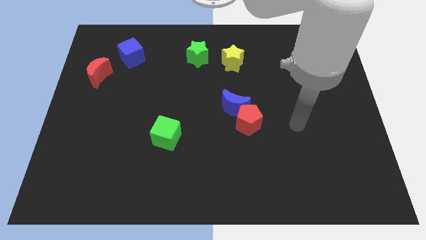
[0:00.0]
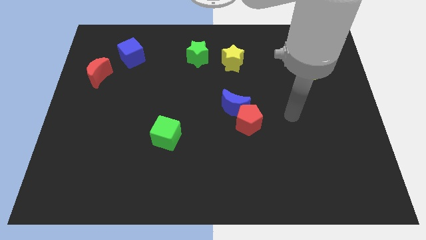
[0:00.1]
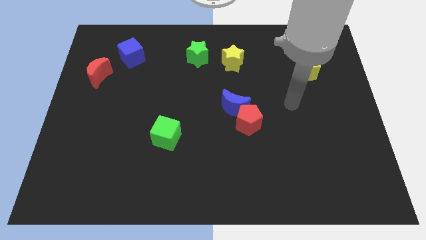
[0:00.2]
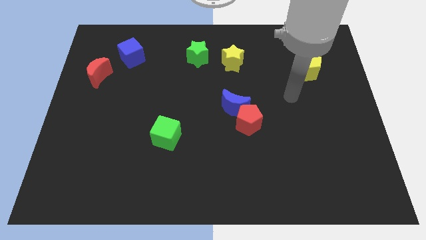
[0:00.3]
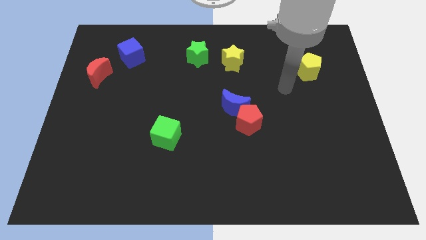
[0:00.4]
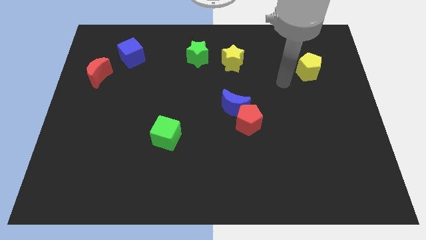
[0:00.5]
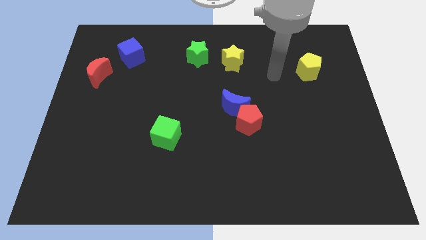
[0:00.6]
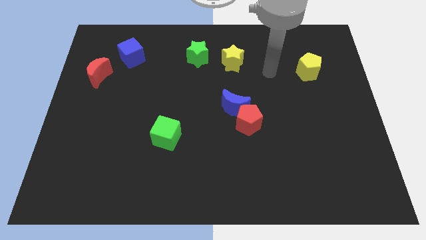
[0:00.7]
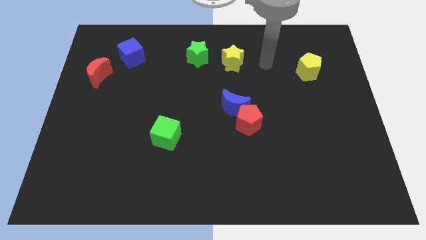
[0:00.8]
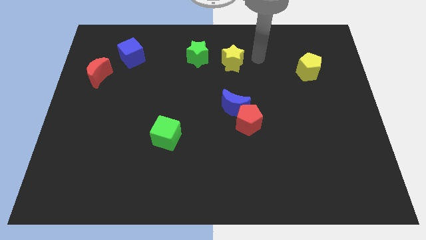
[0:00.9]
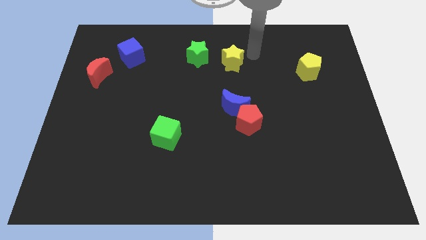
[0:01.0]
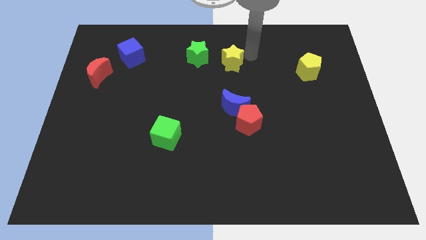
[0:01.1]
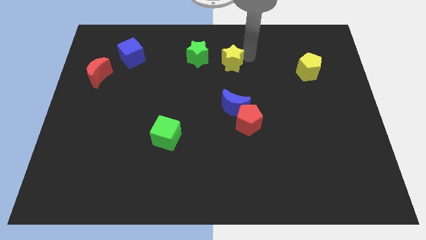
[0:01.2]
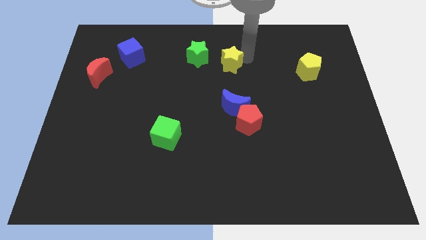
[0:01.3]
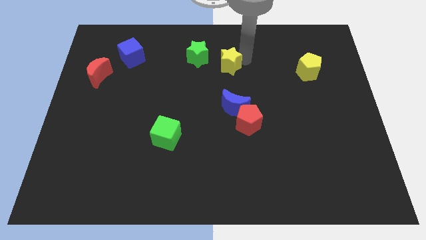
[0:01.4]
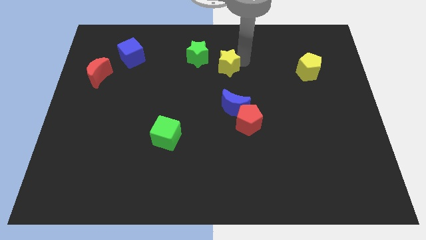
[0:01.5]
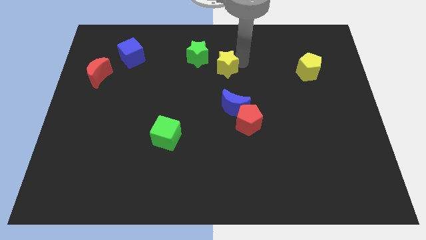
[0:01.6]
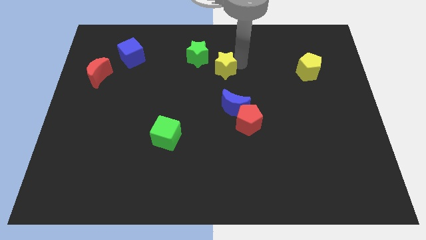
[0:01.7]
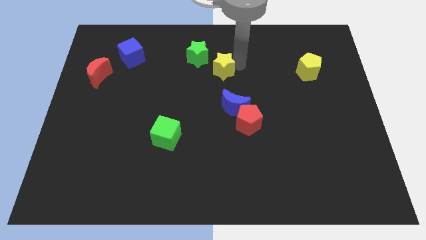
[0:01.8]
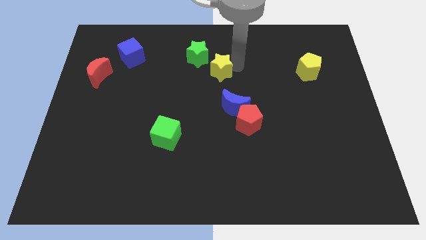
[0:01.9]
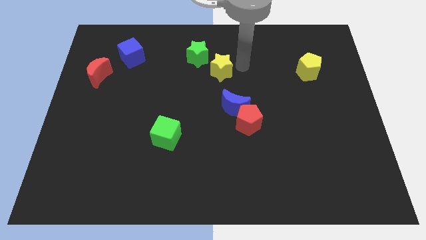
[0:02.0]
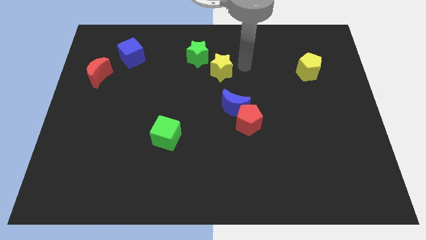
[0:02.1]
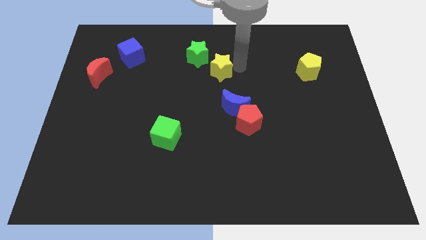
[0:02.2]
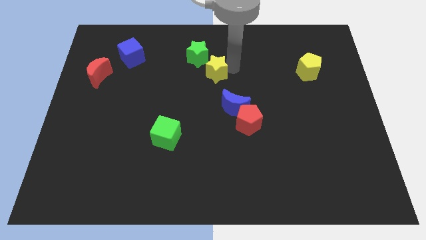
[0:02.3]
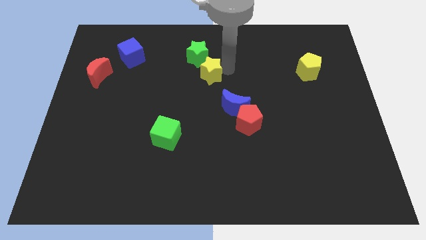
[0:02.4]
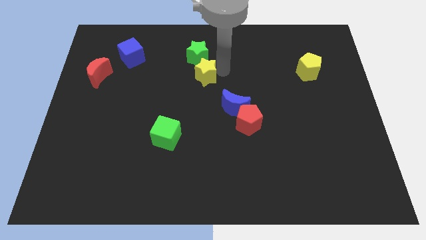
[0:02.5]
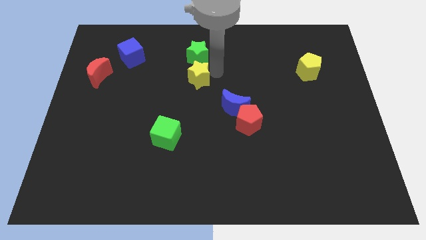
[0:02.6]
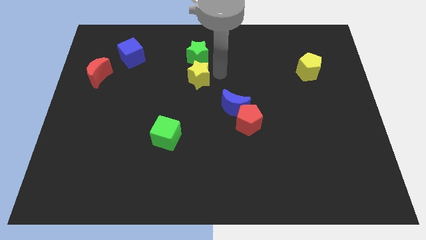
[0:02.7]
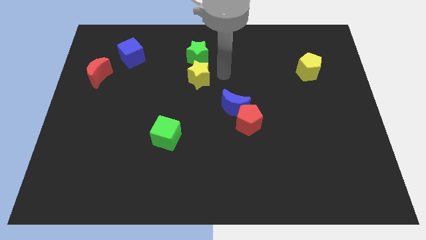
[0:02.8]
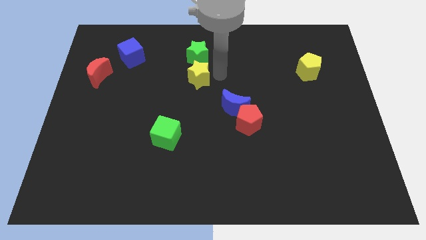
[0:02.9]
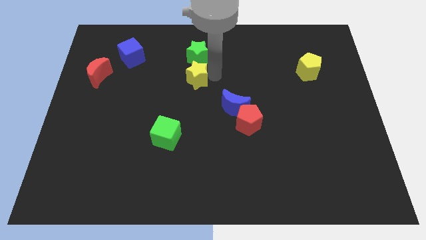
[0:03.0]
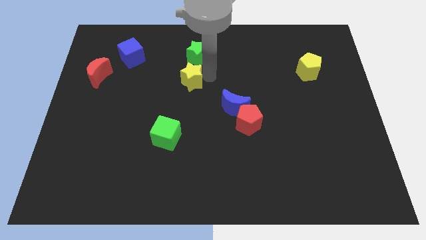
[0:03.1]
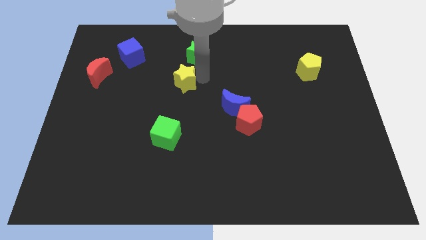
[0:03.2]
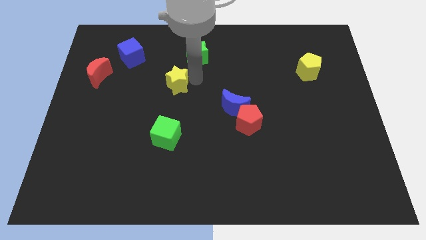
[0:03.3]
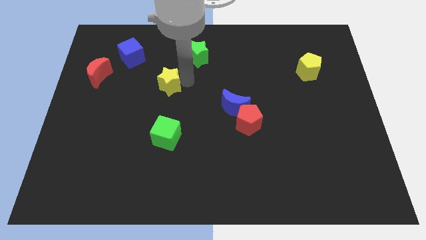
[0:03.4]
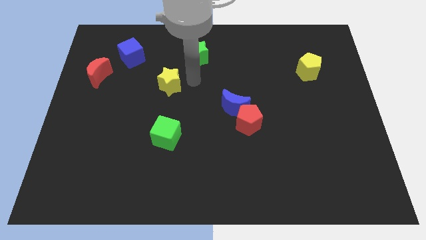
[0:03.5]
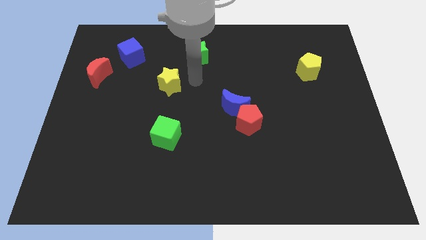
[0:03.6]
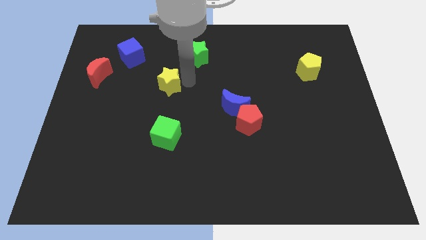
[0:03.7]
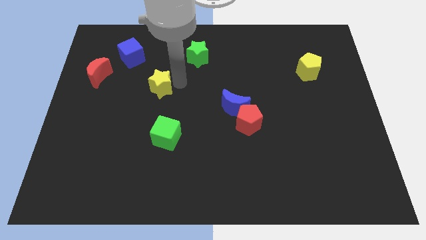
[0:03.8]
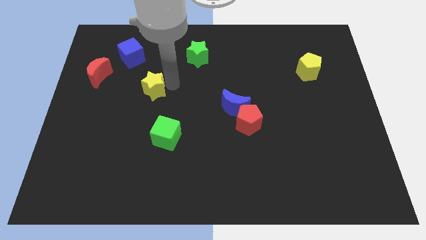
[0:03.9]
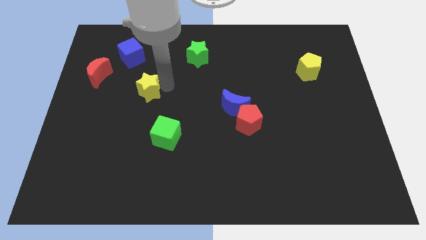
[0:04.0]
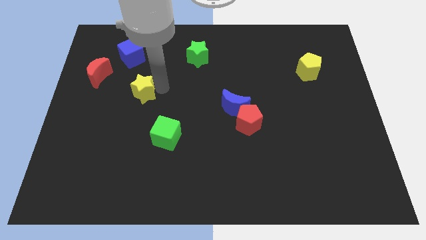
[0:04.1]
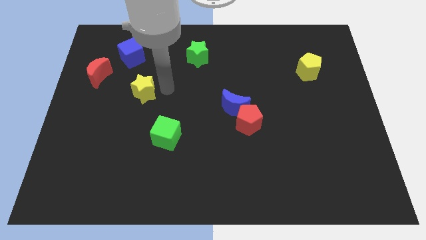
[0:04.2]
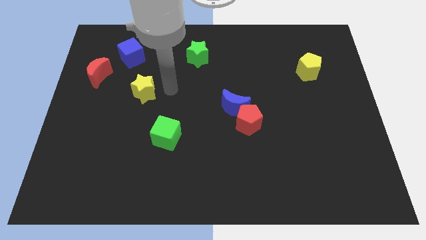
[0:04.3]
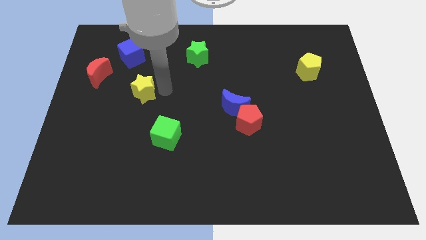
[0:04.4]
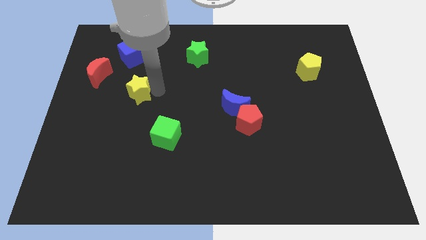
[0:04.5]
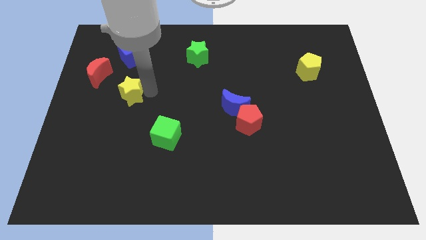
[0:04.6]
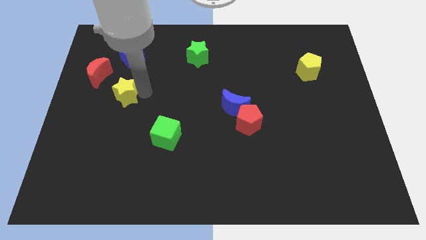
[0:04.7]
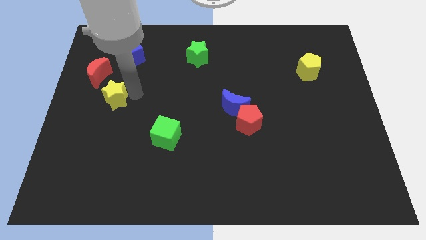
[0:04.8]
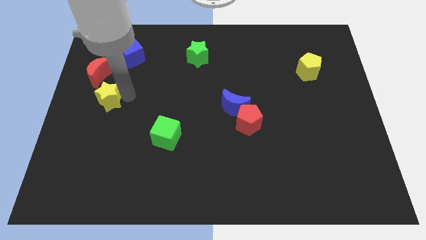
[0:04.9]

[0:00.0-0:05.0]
move the yellow star to the center left

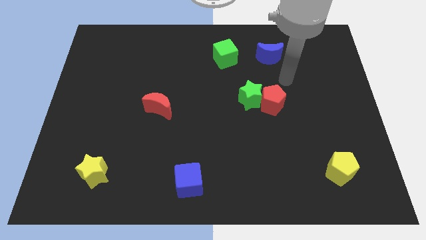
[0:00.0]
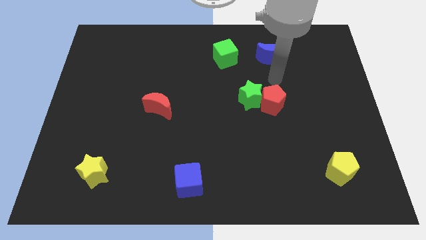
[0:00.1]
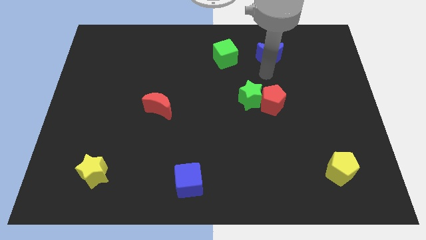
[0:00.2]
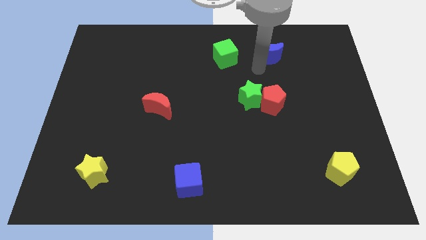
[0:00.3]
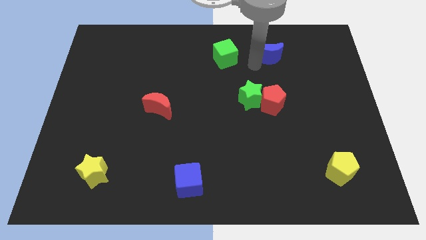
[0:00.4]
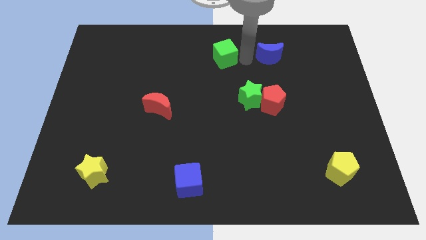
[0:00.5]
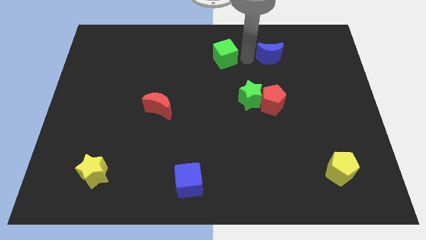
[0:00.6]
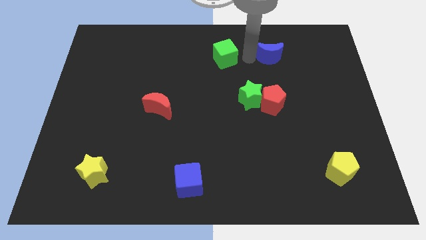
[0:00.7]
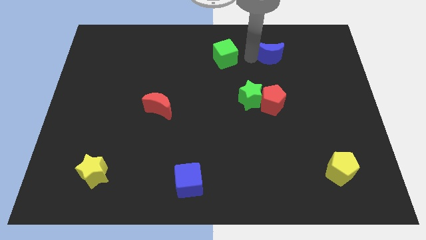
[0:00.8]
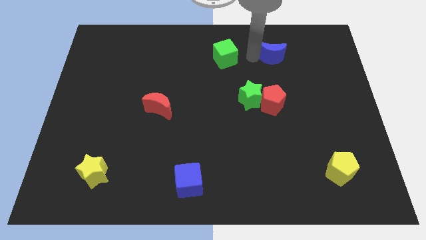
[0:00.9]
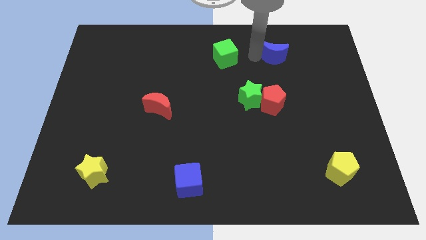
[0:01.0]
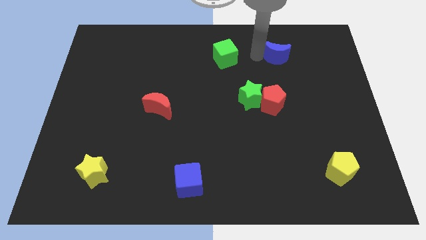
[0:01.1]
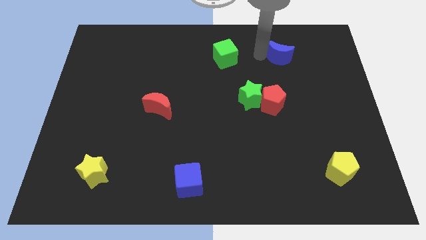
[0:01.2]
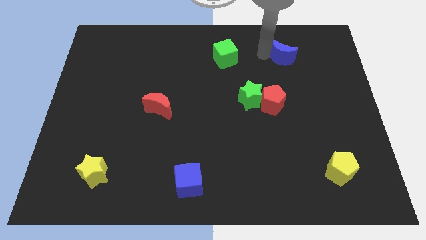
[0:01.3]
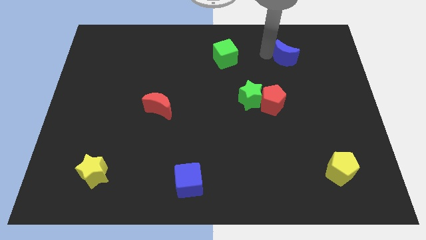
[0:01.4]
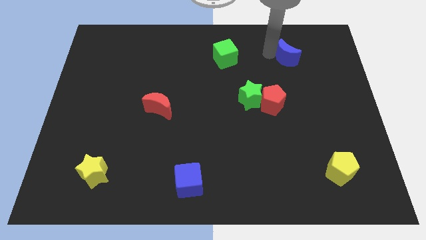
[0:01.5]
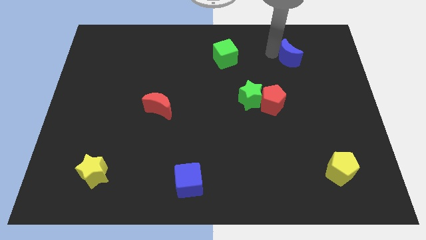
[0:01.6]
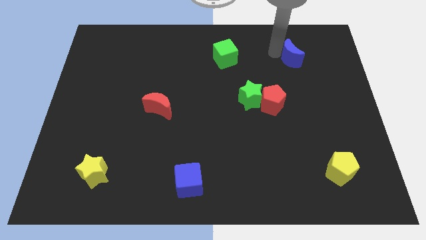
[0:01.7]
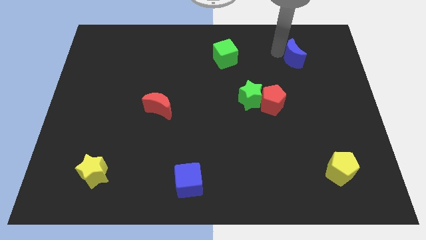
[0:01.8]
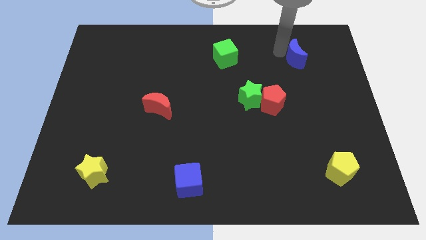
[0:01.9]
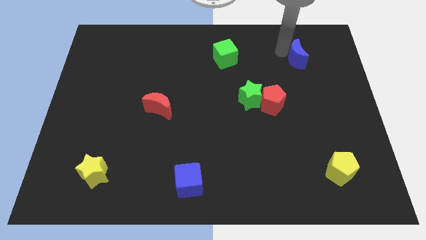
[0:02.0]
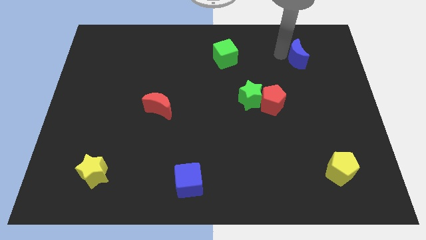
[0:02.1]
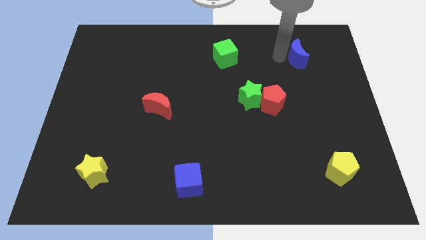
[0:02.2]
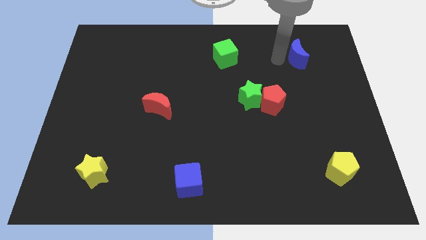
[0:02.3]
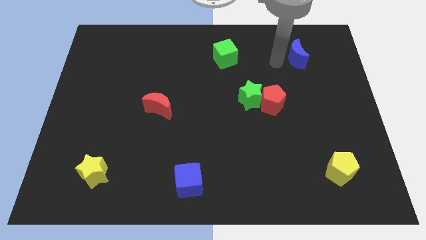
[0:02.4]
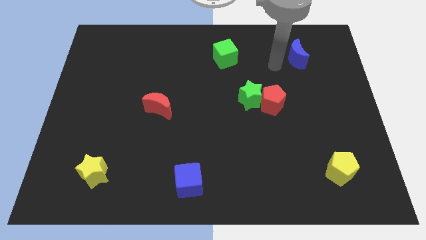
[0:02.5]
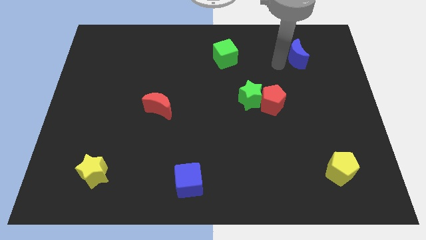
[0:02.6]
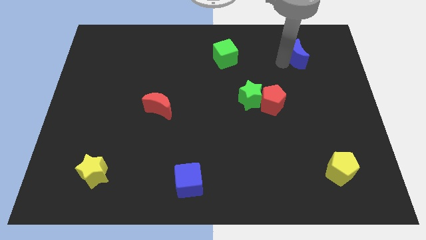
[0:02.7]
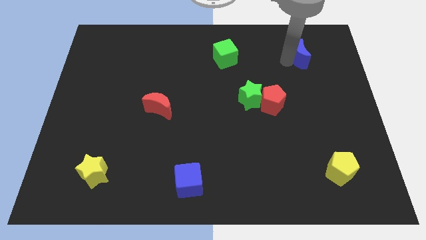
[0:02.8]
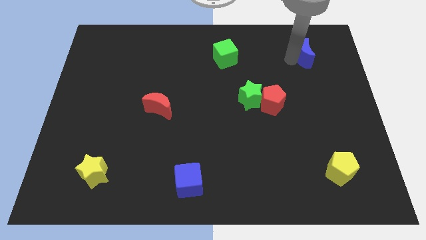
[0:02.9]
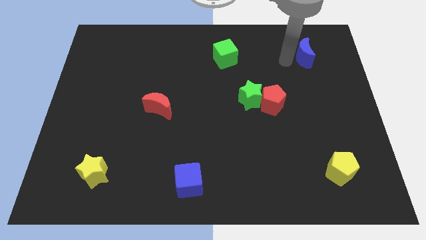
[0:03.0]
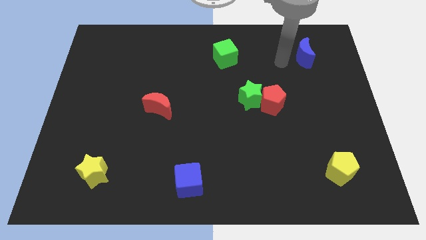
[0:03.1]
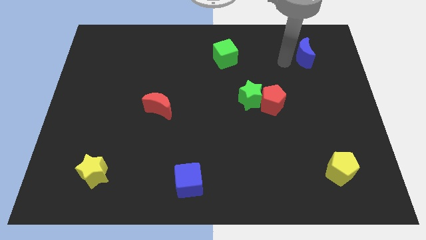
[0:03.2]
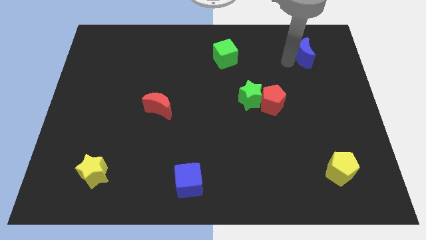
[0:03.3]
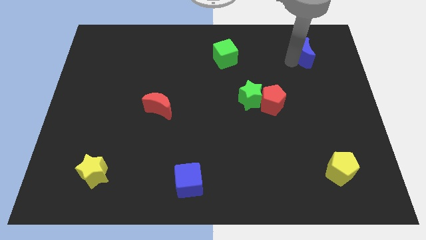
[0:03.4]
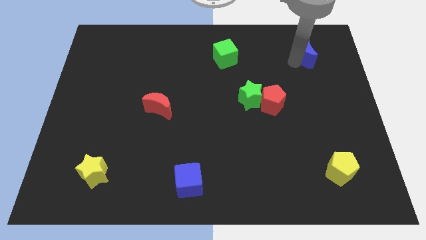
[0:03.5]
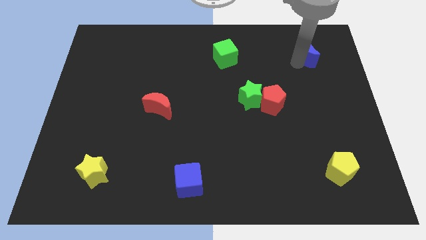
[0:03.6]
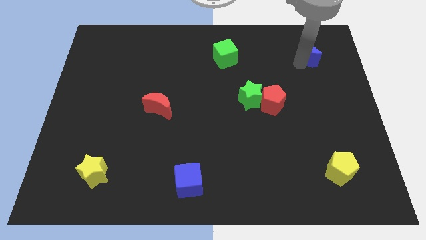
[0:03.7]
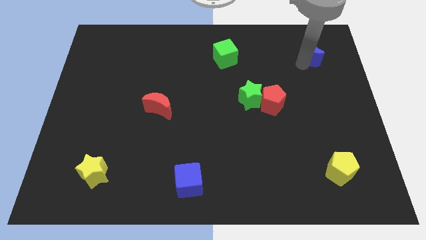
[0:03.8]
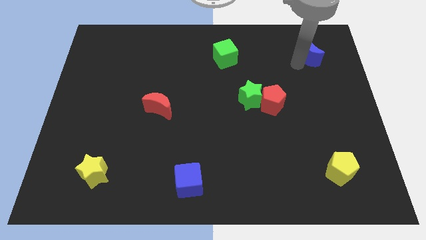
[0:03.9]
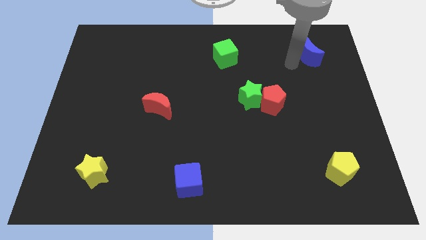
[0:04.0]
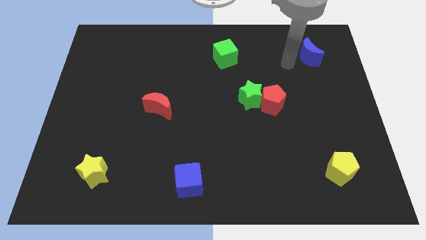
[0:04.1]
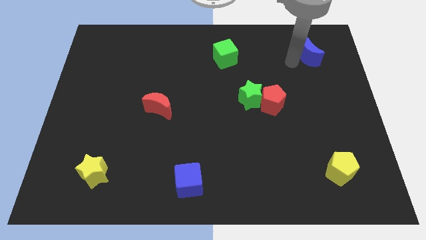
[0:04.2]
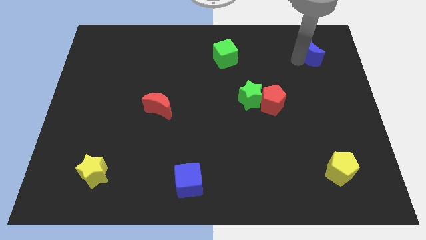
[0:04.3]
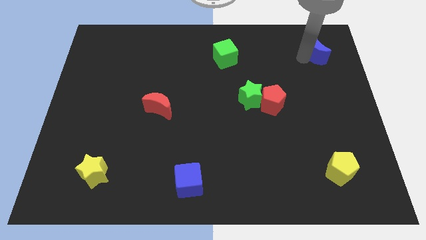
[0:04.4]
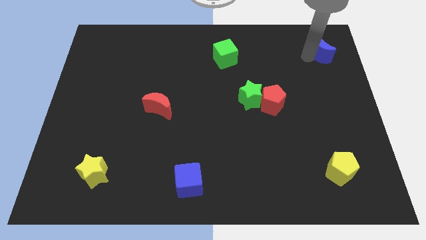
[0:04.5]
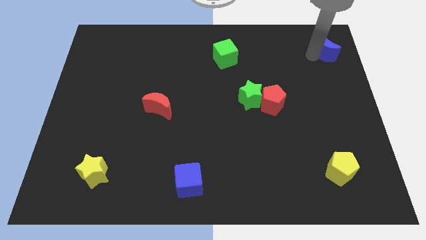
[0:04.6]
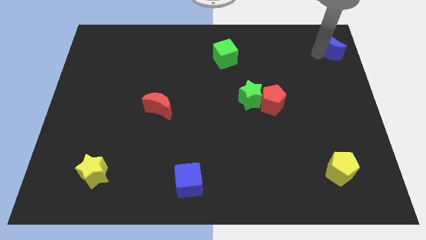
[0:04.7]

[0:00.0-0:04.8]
push the blue moon to the top right of the board
